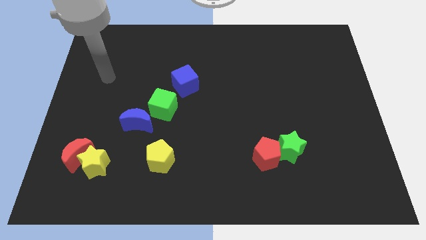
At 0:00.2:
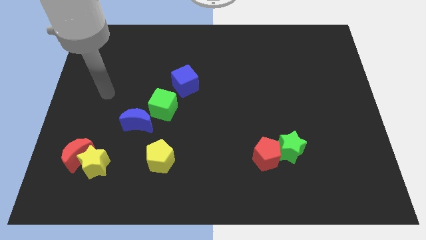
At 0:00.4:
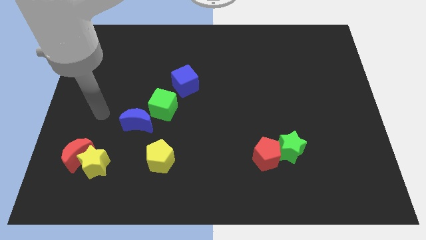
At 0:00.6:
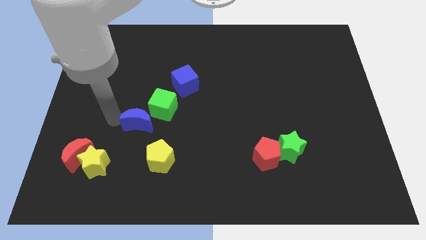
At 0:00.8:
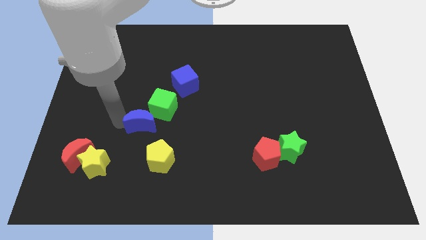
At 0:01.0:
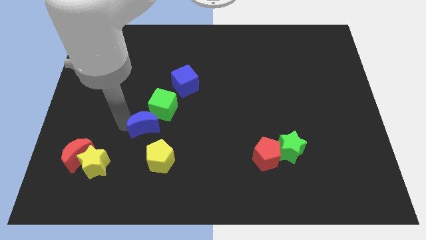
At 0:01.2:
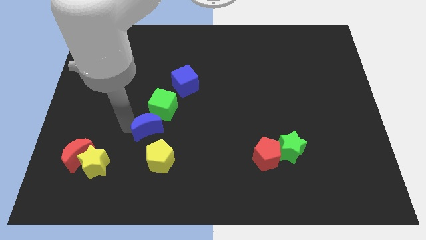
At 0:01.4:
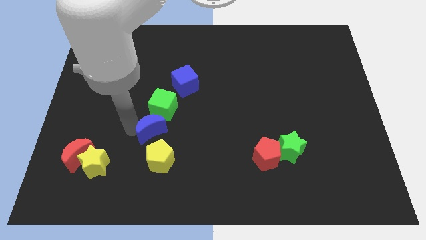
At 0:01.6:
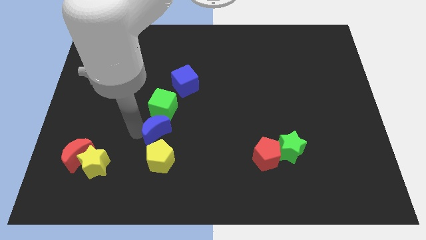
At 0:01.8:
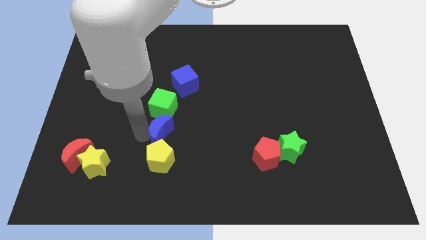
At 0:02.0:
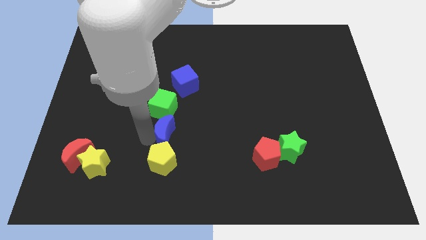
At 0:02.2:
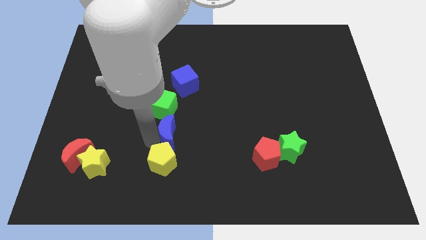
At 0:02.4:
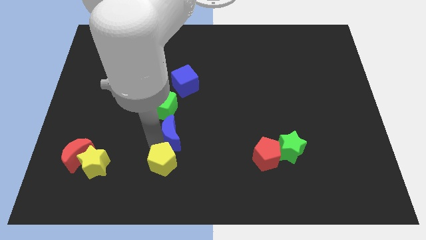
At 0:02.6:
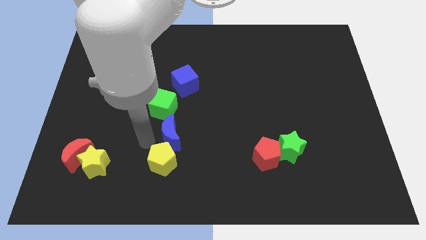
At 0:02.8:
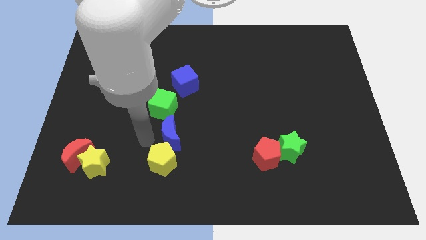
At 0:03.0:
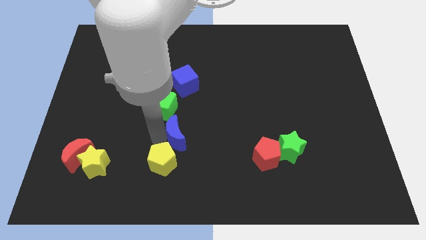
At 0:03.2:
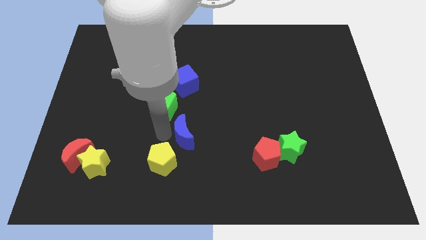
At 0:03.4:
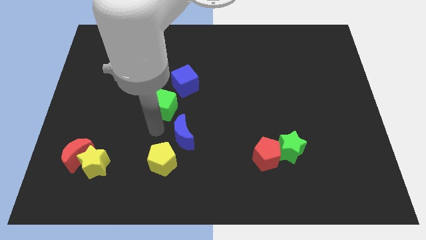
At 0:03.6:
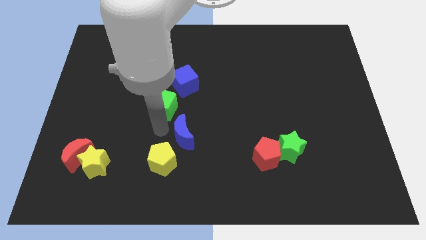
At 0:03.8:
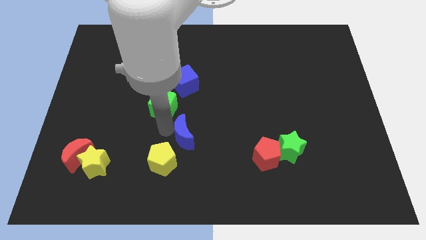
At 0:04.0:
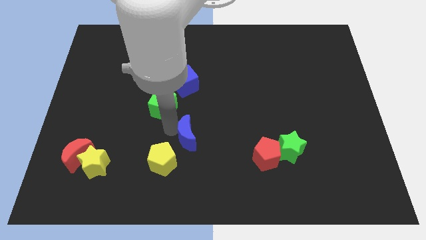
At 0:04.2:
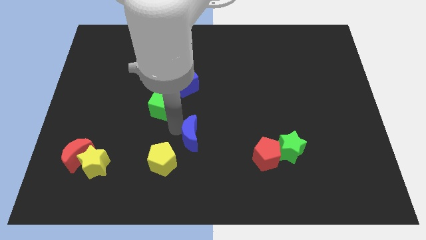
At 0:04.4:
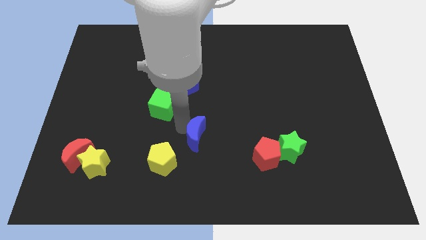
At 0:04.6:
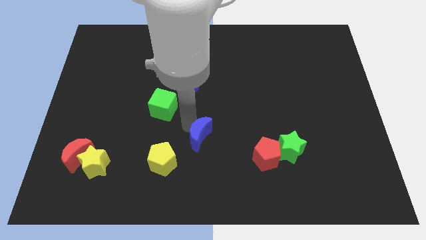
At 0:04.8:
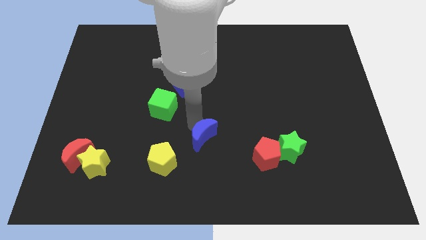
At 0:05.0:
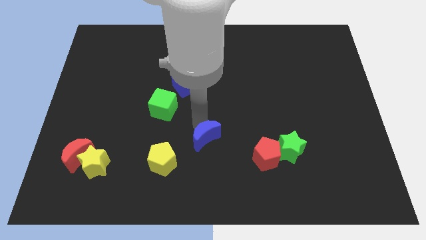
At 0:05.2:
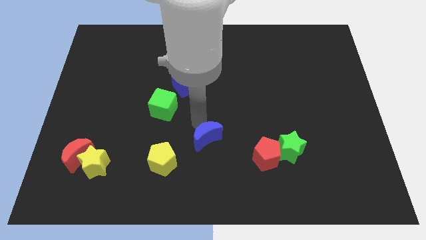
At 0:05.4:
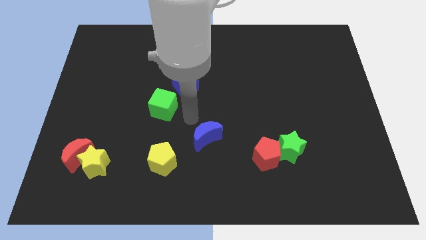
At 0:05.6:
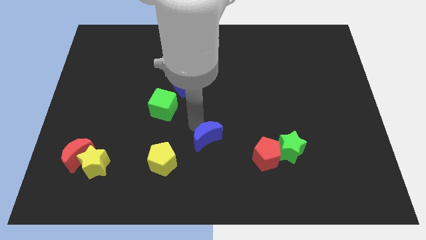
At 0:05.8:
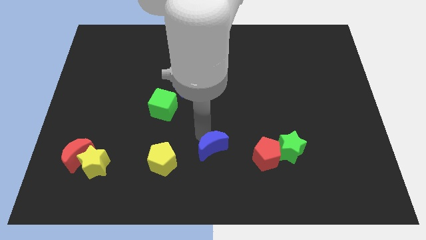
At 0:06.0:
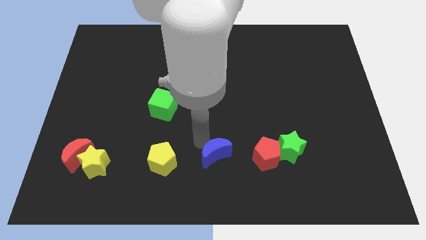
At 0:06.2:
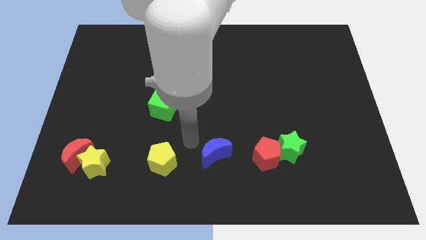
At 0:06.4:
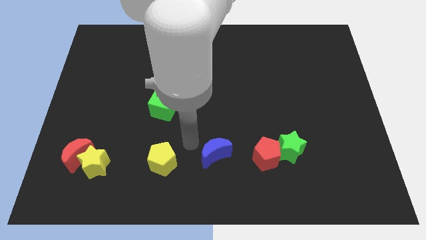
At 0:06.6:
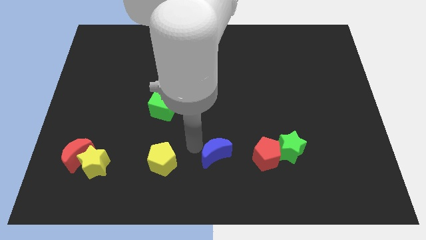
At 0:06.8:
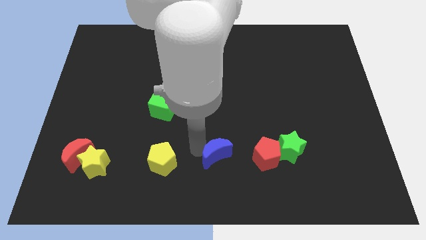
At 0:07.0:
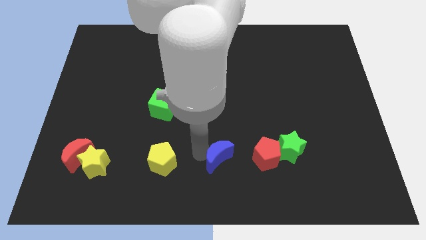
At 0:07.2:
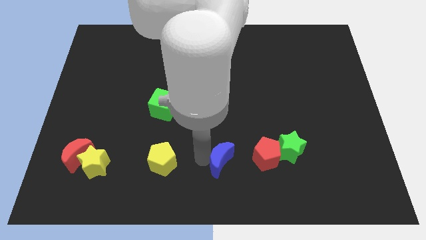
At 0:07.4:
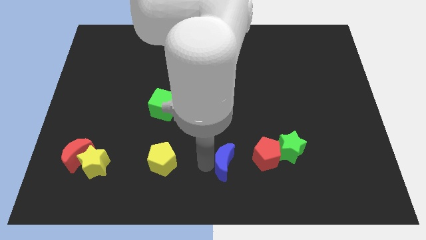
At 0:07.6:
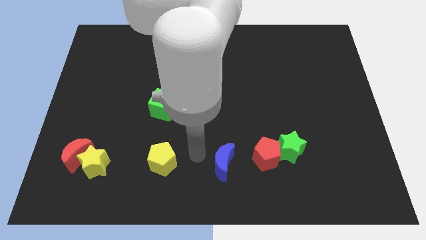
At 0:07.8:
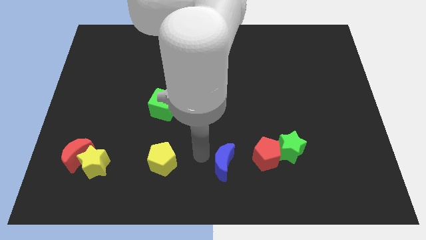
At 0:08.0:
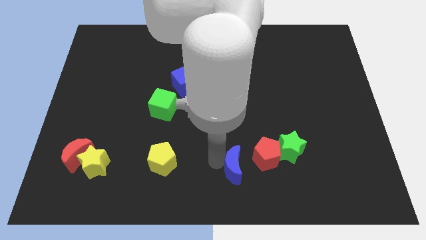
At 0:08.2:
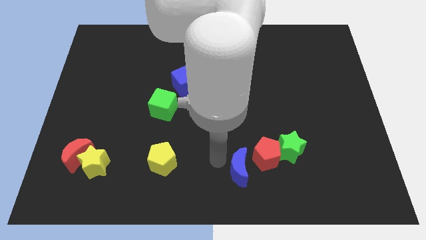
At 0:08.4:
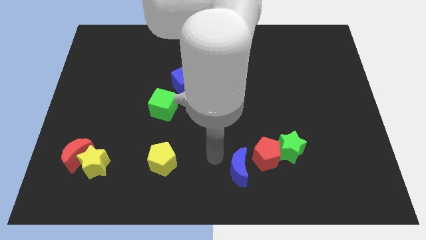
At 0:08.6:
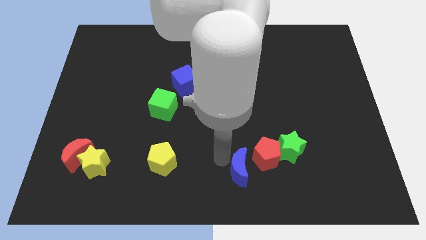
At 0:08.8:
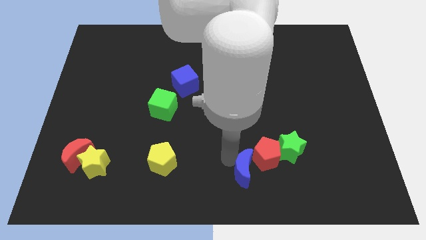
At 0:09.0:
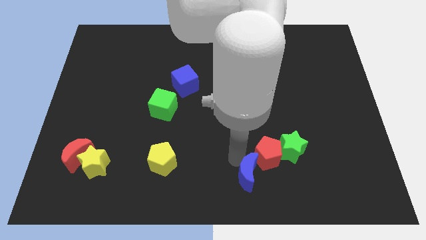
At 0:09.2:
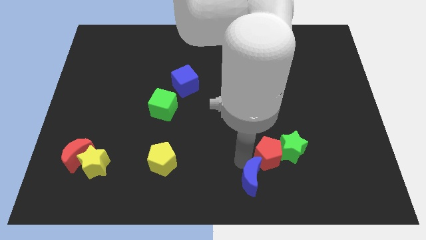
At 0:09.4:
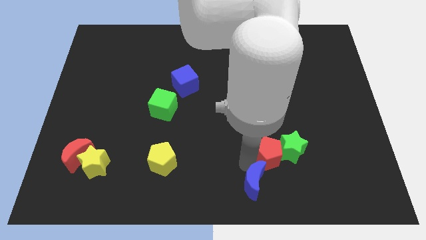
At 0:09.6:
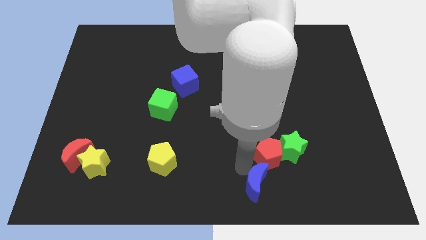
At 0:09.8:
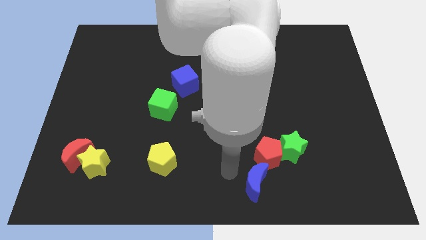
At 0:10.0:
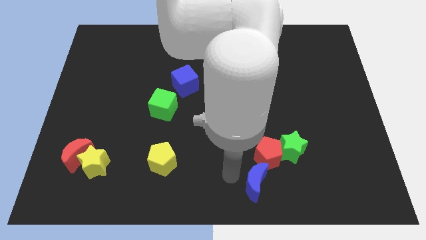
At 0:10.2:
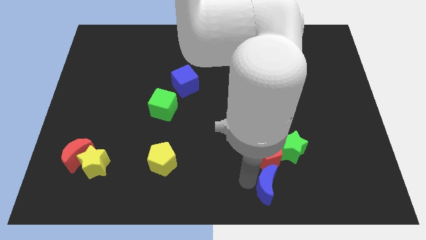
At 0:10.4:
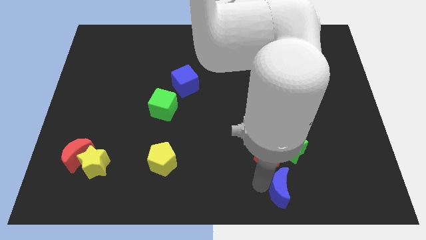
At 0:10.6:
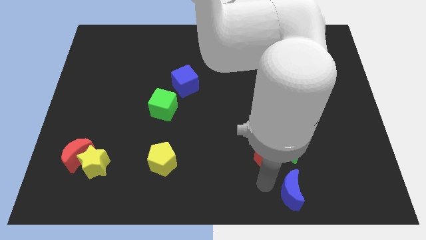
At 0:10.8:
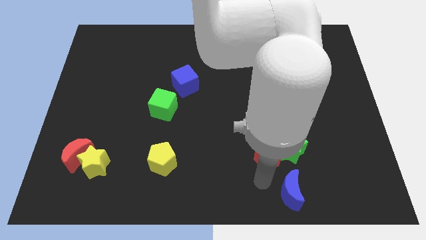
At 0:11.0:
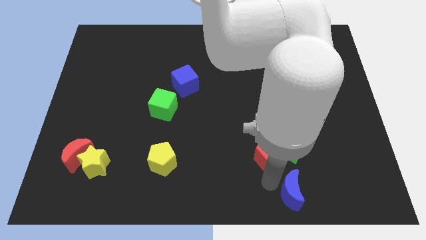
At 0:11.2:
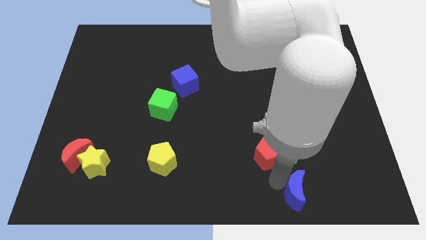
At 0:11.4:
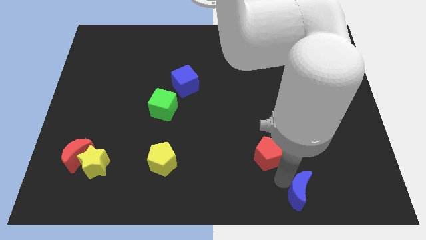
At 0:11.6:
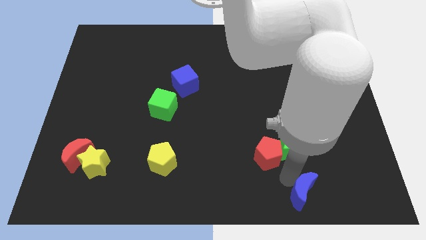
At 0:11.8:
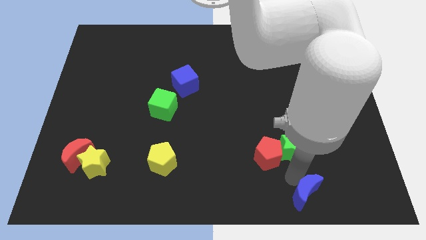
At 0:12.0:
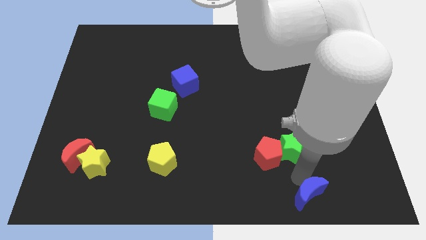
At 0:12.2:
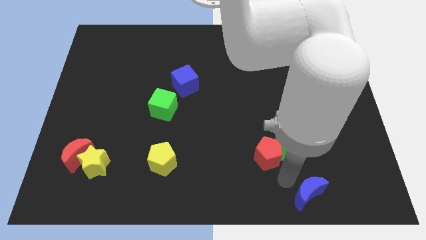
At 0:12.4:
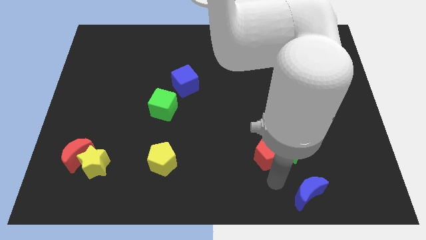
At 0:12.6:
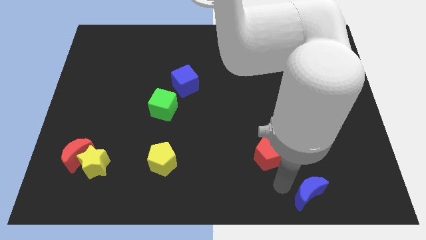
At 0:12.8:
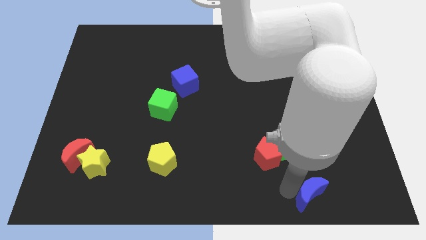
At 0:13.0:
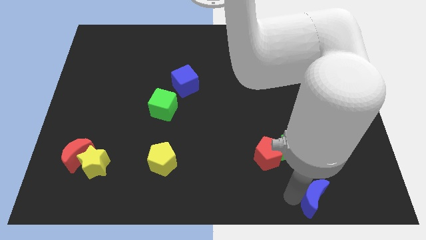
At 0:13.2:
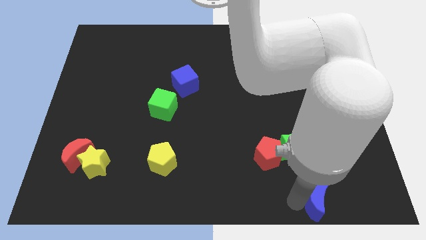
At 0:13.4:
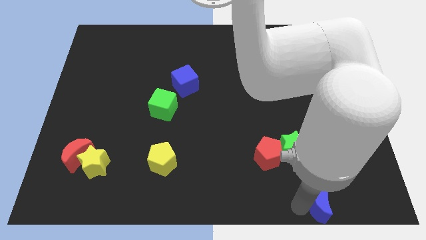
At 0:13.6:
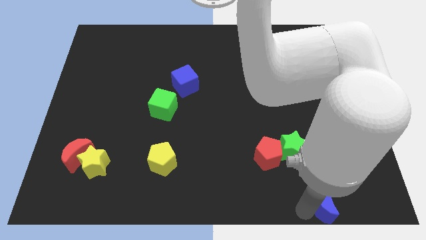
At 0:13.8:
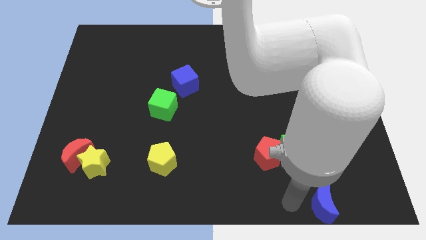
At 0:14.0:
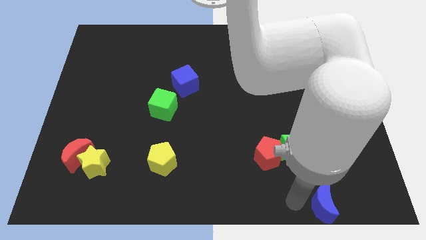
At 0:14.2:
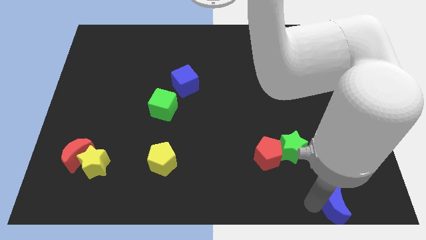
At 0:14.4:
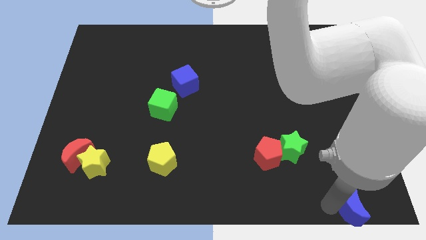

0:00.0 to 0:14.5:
put the blue moon to the lower right corner
